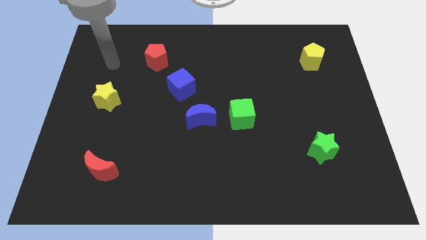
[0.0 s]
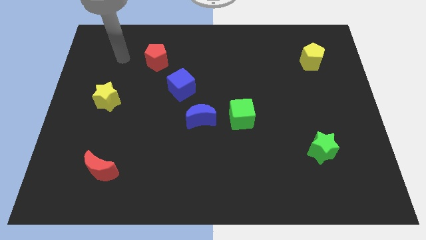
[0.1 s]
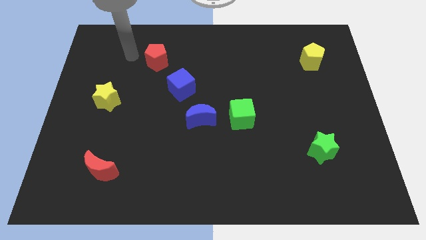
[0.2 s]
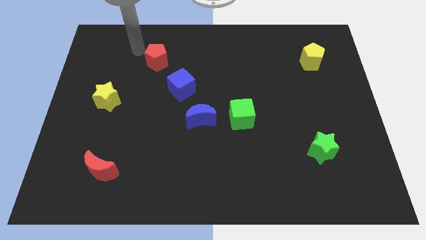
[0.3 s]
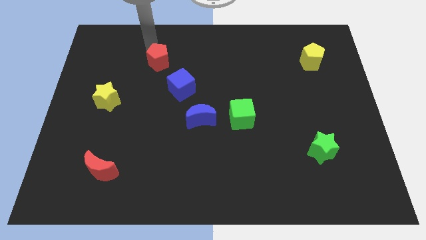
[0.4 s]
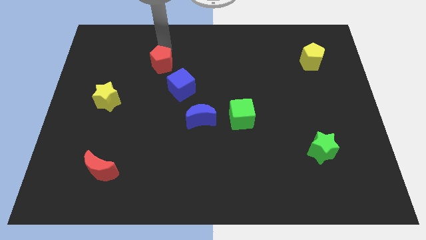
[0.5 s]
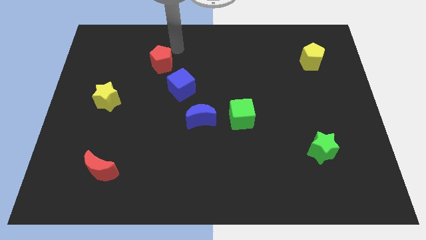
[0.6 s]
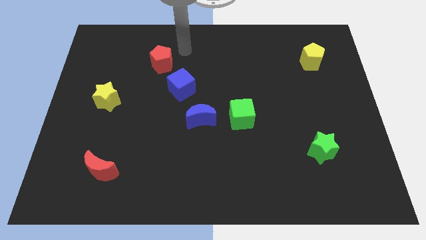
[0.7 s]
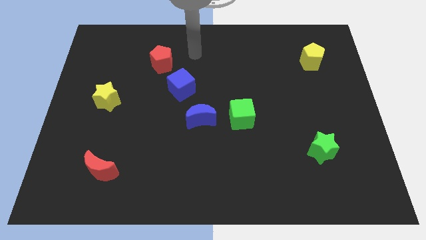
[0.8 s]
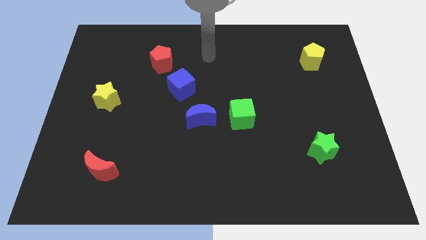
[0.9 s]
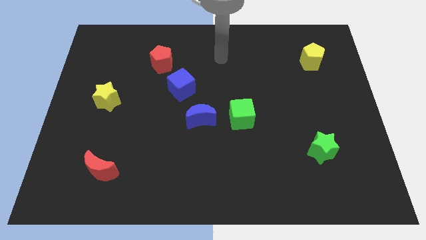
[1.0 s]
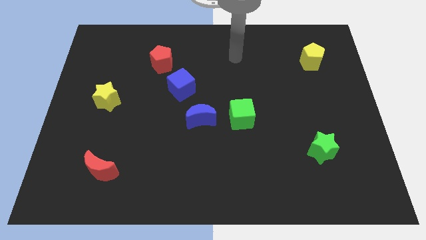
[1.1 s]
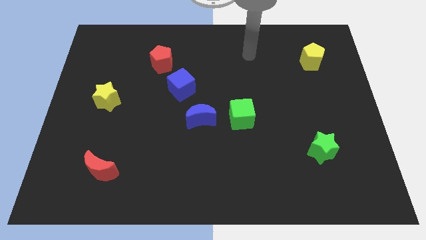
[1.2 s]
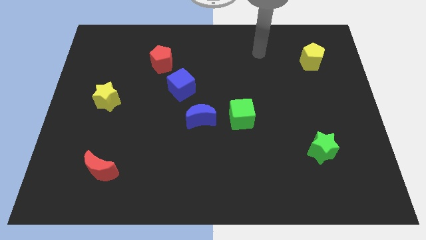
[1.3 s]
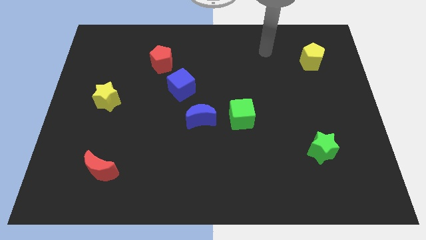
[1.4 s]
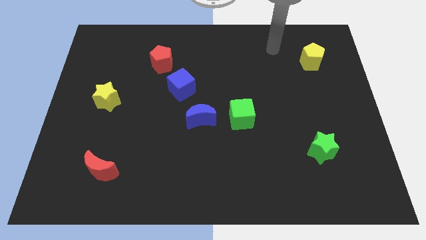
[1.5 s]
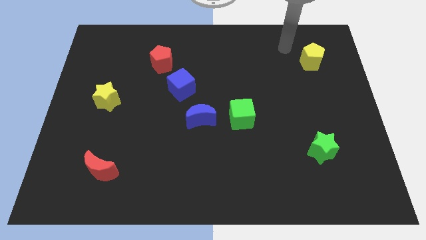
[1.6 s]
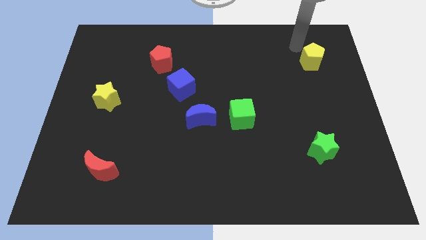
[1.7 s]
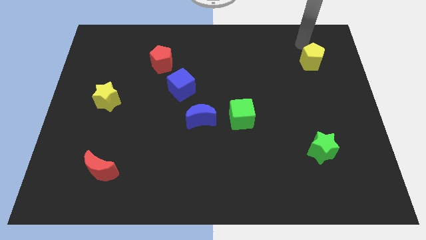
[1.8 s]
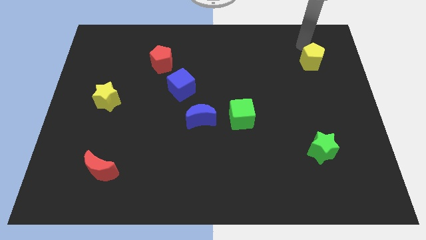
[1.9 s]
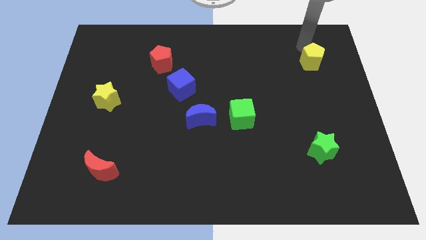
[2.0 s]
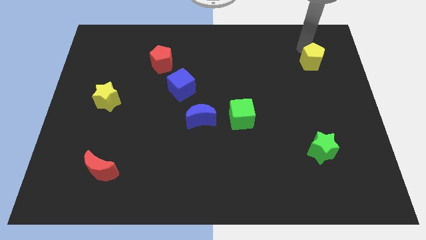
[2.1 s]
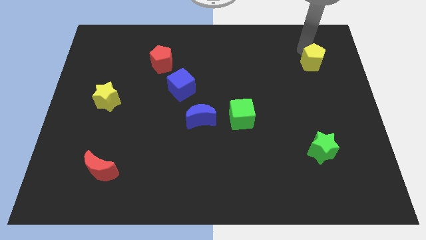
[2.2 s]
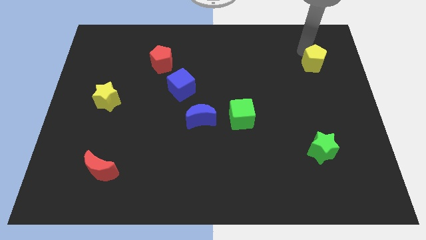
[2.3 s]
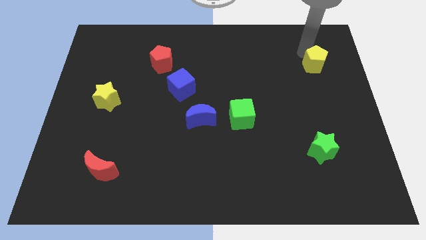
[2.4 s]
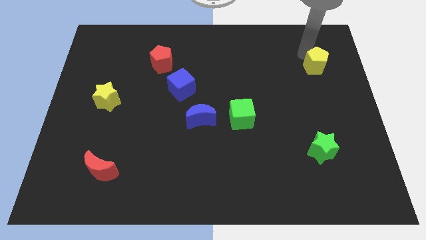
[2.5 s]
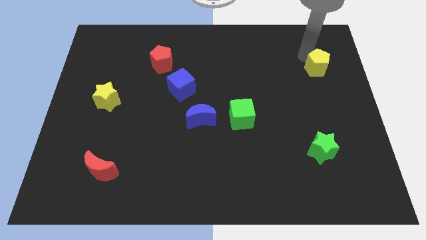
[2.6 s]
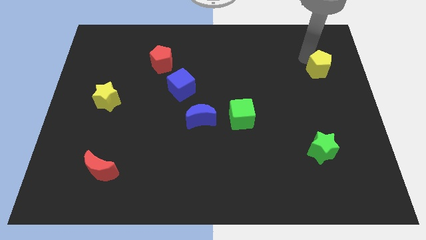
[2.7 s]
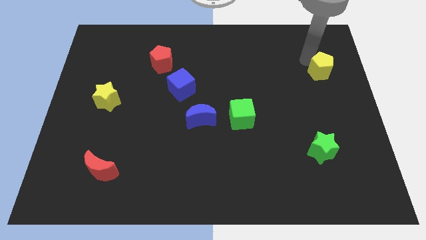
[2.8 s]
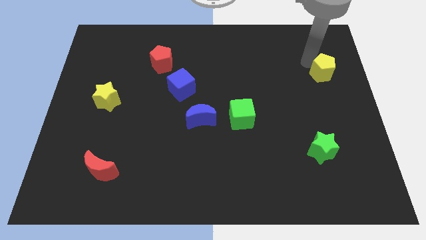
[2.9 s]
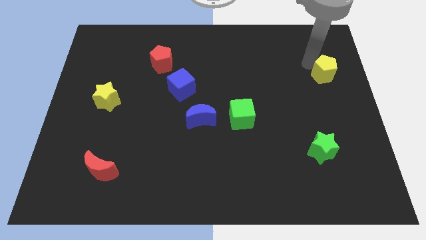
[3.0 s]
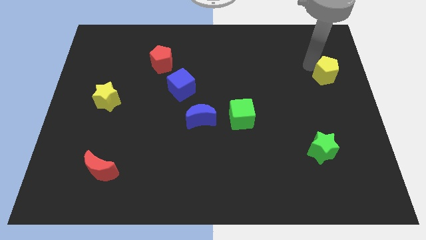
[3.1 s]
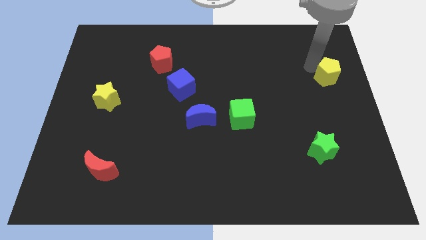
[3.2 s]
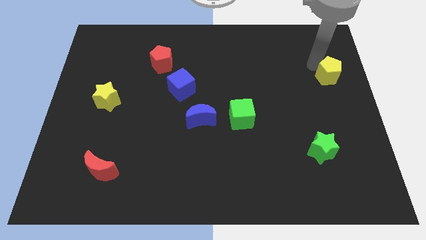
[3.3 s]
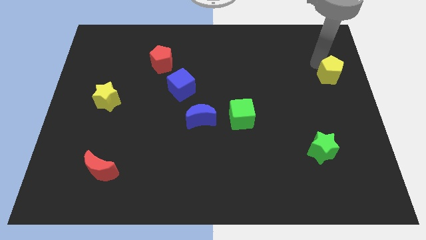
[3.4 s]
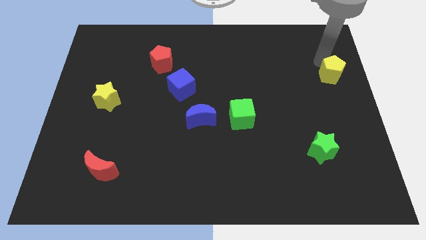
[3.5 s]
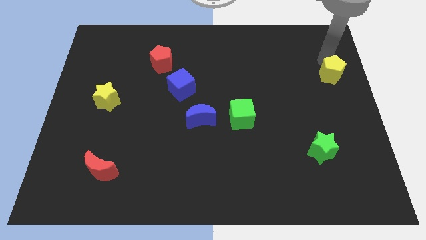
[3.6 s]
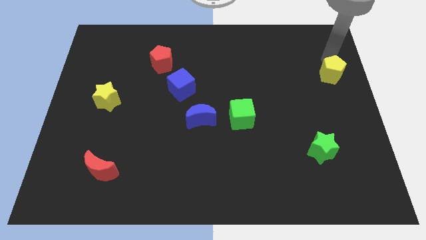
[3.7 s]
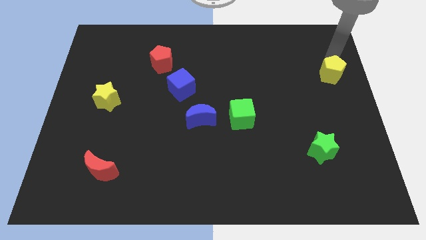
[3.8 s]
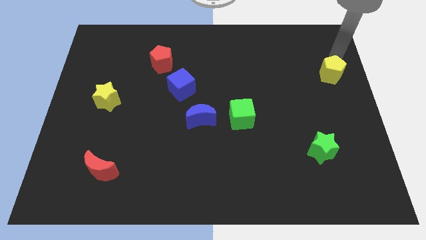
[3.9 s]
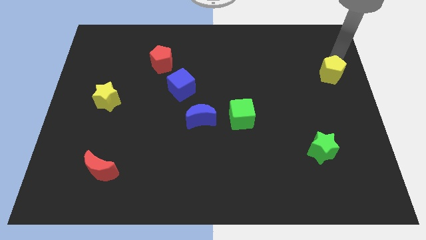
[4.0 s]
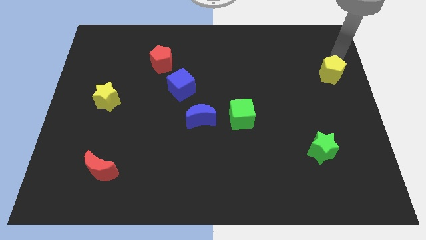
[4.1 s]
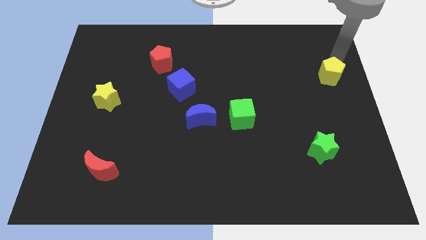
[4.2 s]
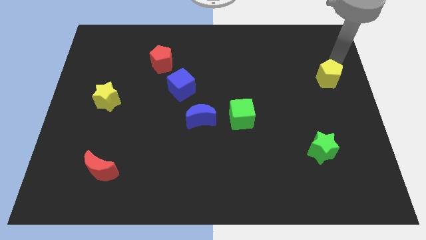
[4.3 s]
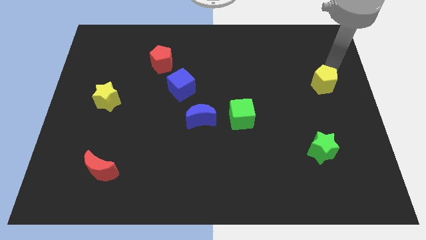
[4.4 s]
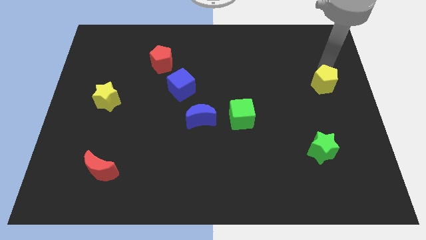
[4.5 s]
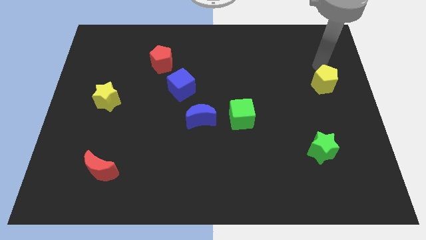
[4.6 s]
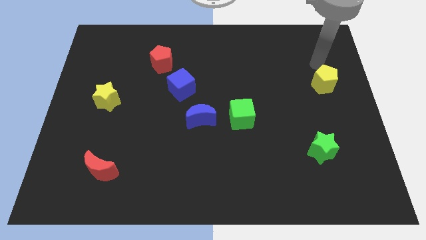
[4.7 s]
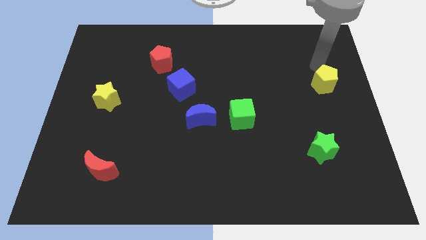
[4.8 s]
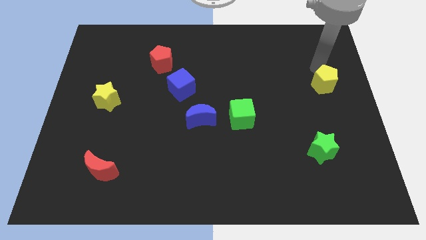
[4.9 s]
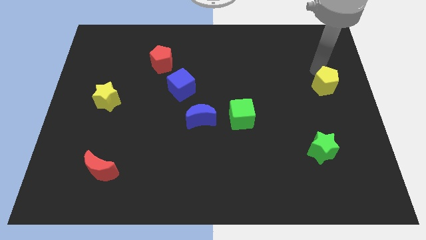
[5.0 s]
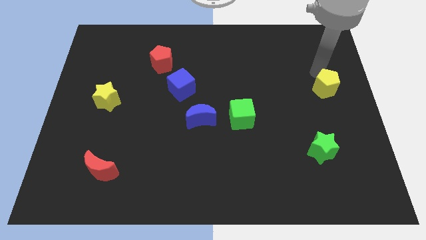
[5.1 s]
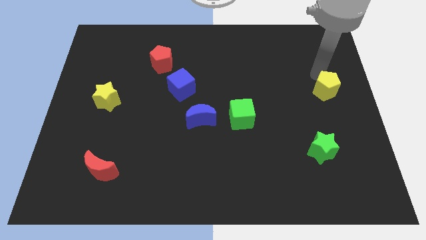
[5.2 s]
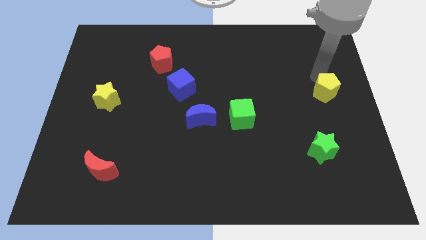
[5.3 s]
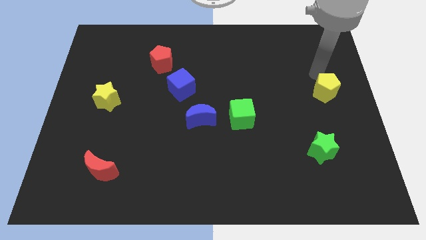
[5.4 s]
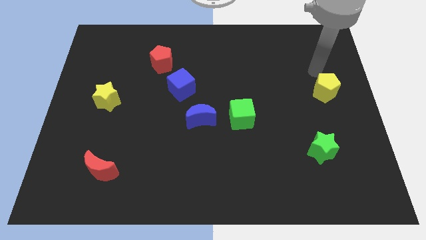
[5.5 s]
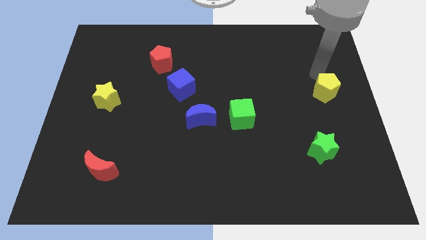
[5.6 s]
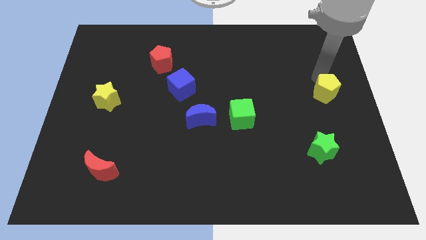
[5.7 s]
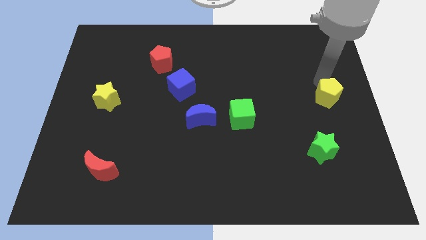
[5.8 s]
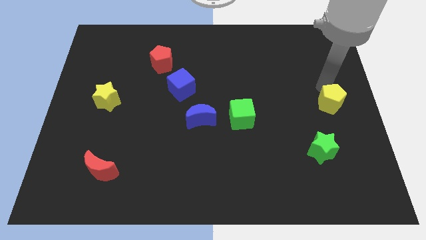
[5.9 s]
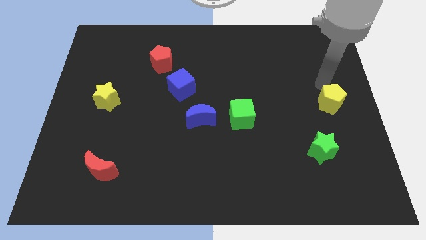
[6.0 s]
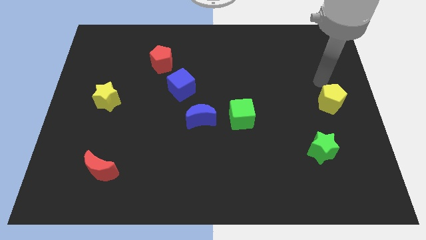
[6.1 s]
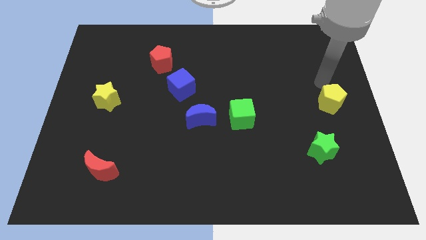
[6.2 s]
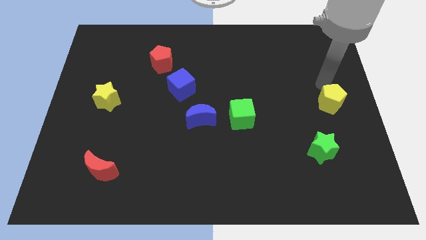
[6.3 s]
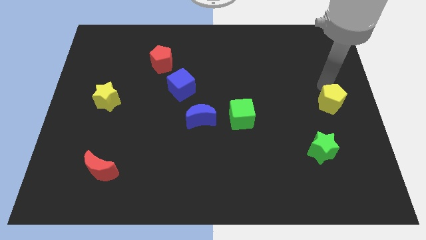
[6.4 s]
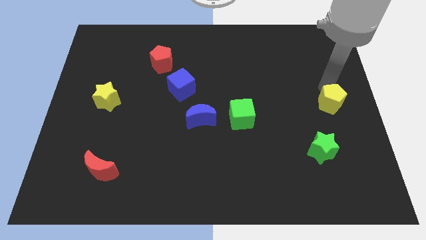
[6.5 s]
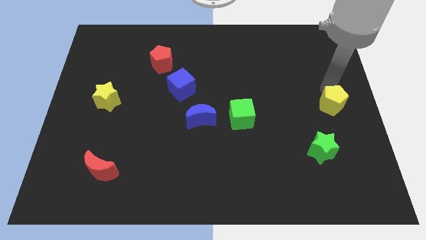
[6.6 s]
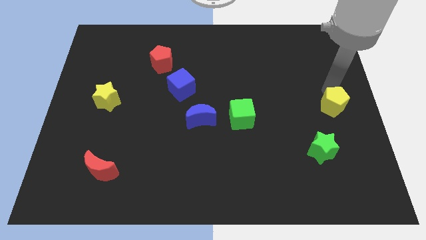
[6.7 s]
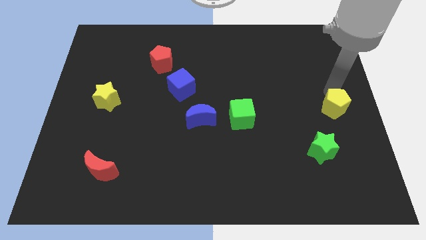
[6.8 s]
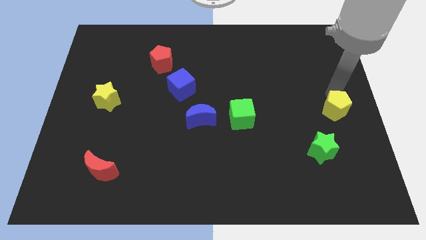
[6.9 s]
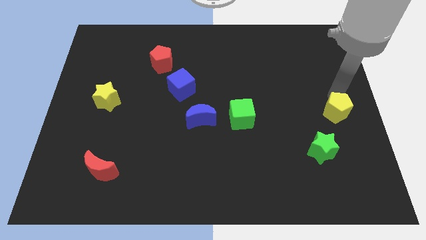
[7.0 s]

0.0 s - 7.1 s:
put the yellow pentagon to the top right side of the green star
